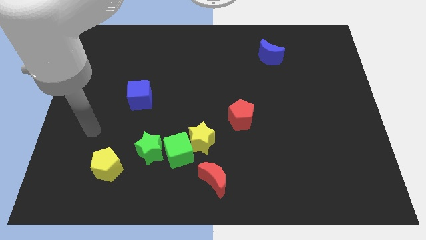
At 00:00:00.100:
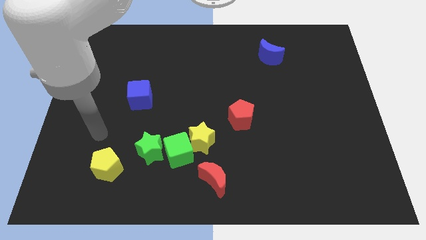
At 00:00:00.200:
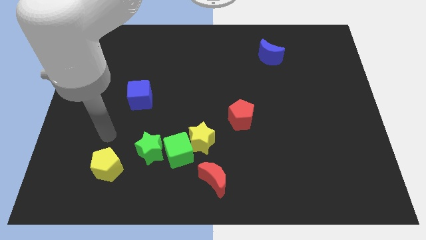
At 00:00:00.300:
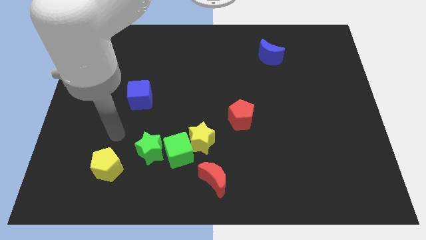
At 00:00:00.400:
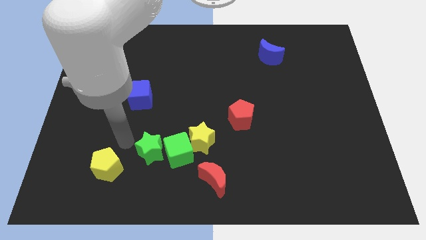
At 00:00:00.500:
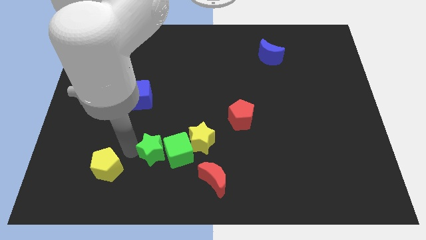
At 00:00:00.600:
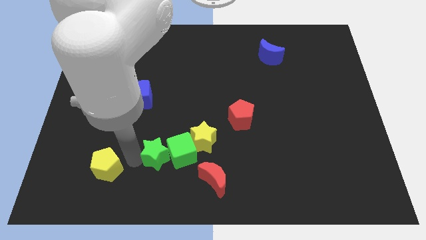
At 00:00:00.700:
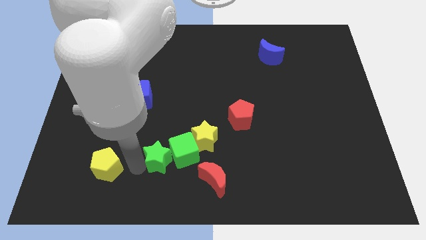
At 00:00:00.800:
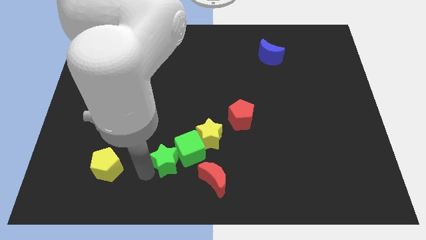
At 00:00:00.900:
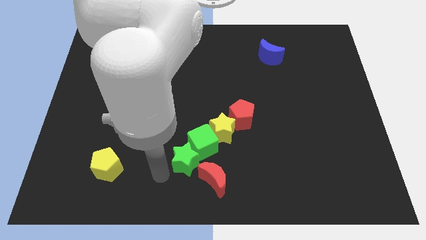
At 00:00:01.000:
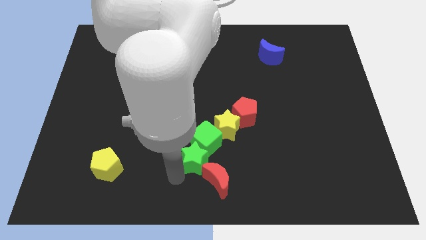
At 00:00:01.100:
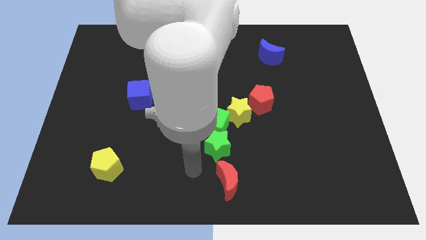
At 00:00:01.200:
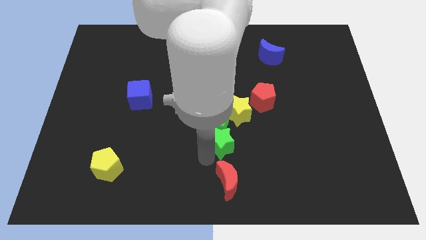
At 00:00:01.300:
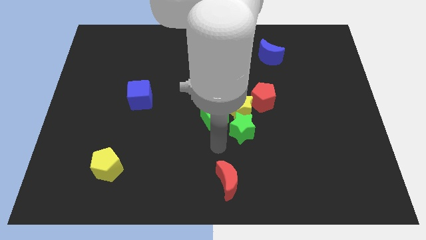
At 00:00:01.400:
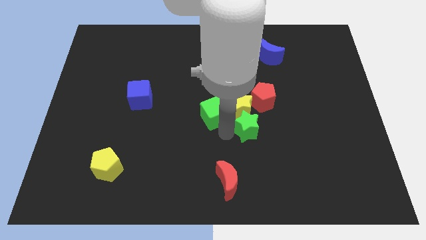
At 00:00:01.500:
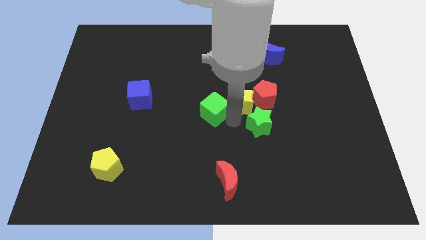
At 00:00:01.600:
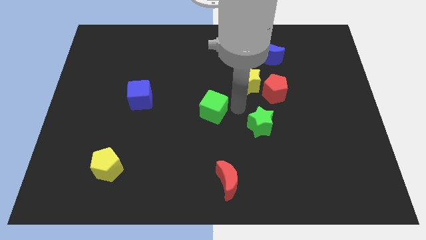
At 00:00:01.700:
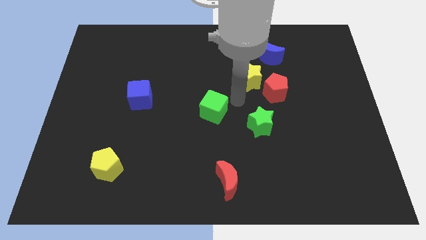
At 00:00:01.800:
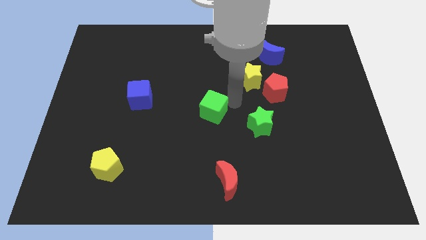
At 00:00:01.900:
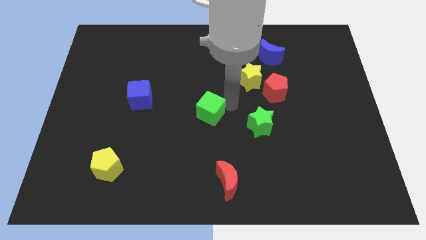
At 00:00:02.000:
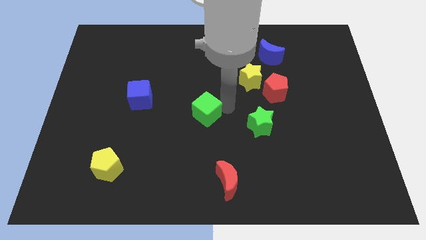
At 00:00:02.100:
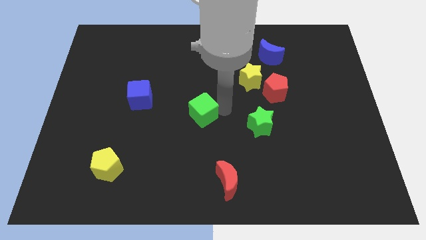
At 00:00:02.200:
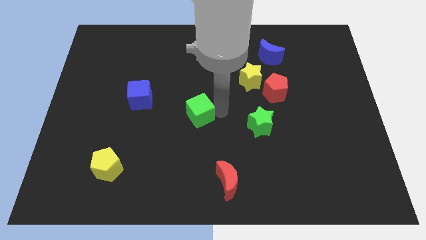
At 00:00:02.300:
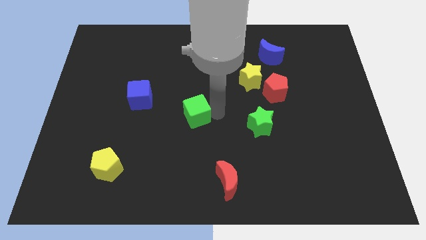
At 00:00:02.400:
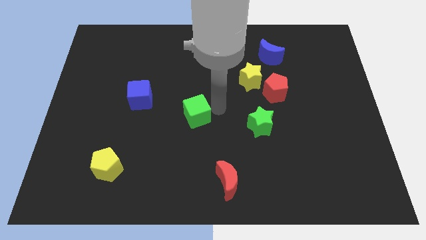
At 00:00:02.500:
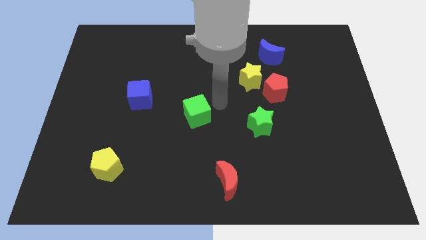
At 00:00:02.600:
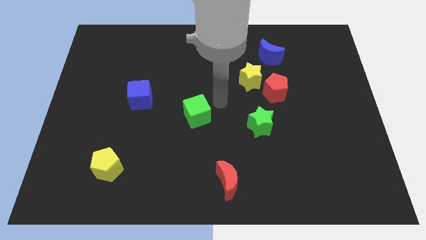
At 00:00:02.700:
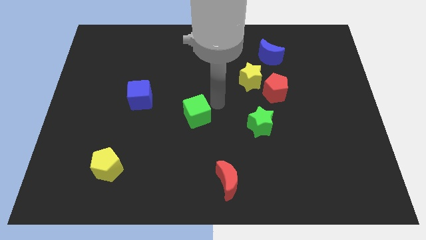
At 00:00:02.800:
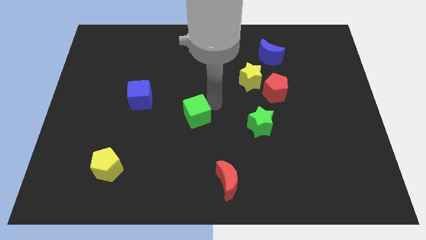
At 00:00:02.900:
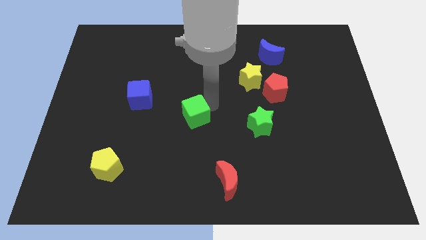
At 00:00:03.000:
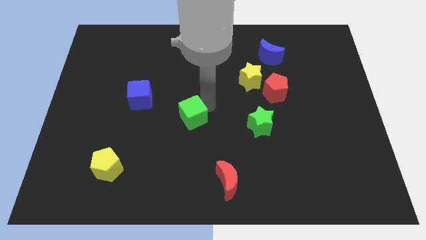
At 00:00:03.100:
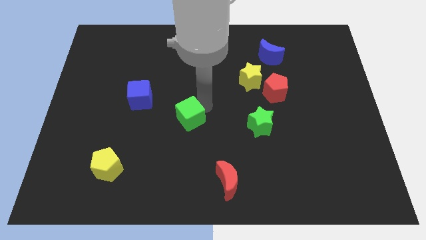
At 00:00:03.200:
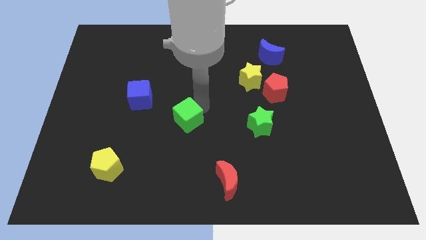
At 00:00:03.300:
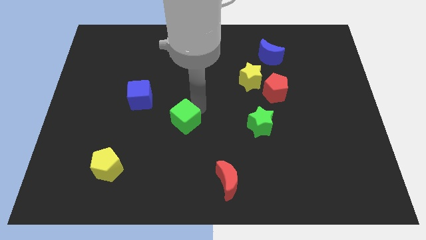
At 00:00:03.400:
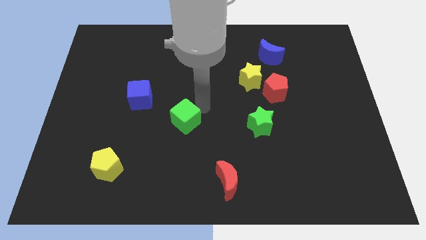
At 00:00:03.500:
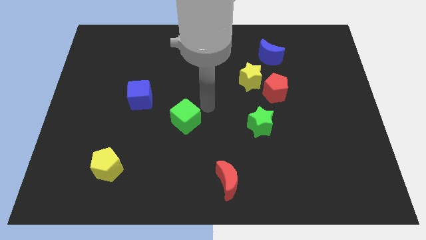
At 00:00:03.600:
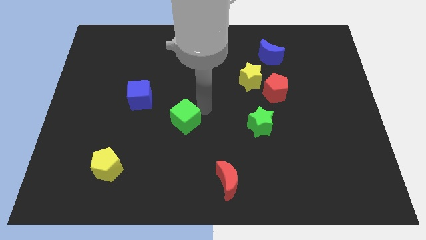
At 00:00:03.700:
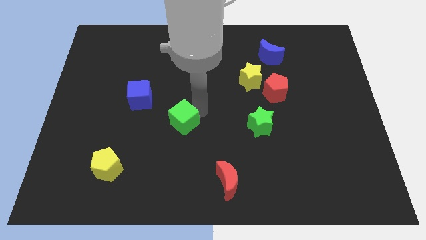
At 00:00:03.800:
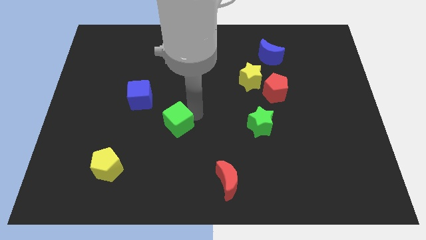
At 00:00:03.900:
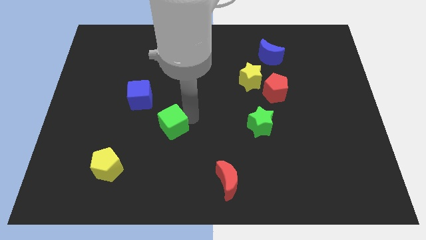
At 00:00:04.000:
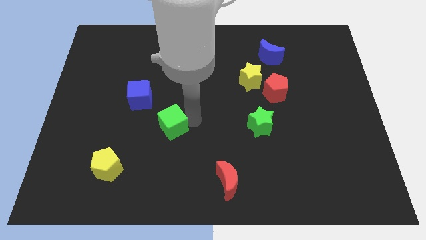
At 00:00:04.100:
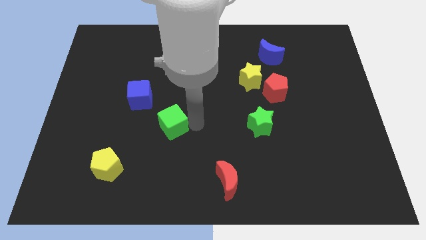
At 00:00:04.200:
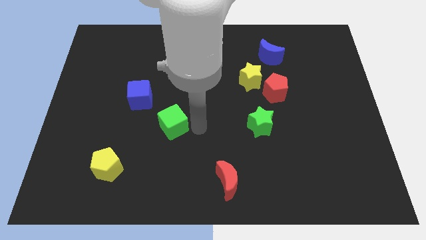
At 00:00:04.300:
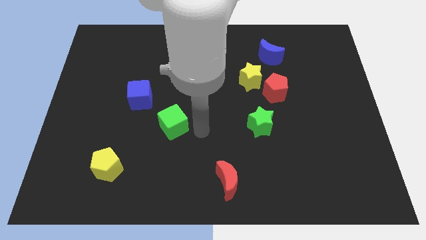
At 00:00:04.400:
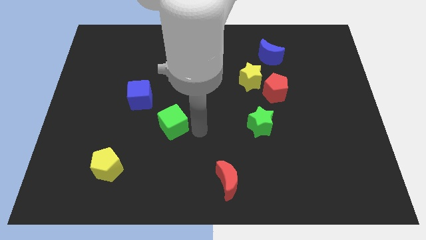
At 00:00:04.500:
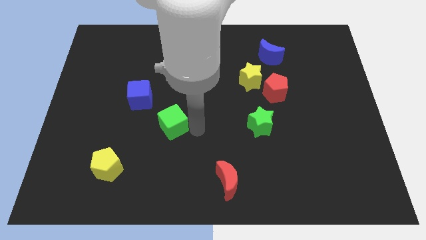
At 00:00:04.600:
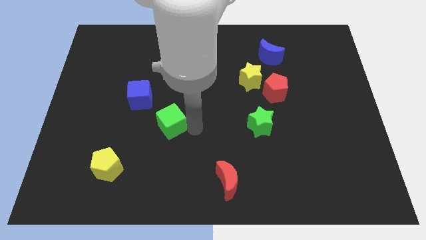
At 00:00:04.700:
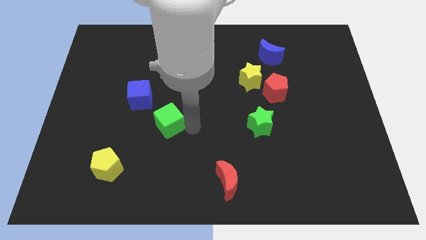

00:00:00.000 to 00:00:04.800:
move the green cube upwards and to the left a bit

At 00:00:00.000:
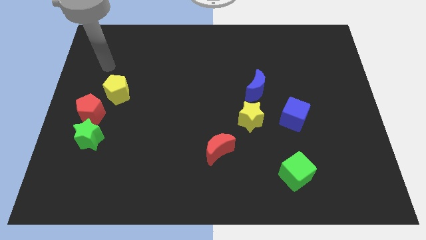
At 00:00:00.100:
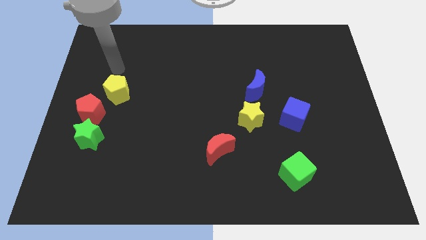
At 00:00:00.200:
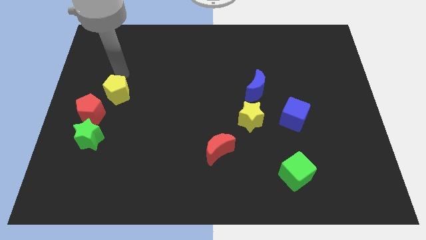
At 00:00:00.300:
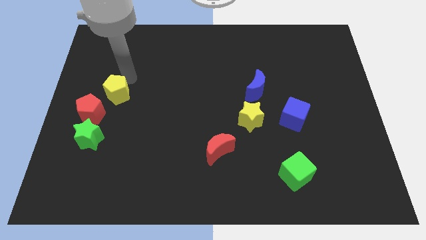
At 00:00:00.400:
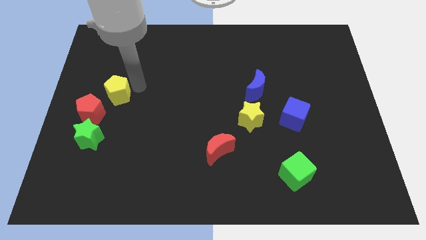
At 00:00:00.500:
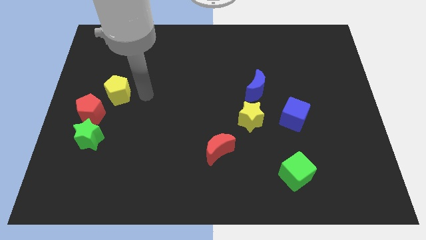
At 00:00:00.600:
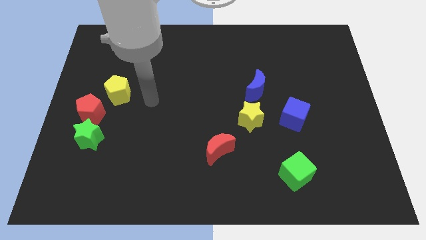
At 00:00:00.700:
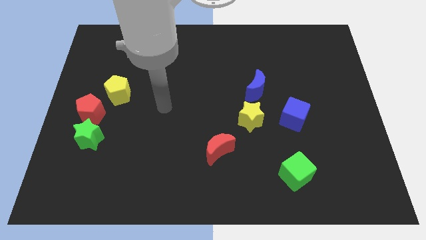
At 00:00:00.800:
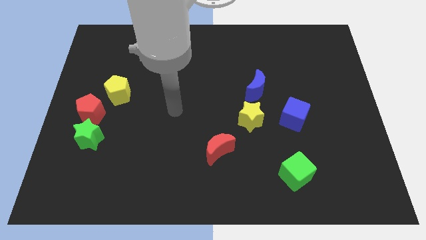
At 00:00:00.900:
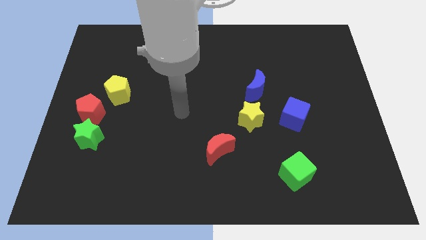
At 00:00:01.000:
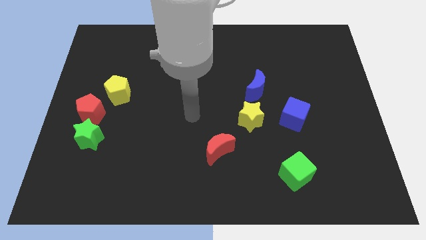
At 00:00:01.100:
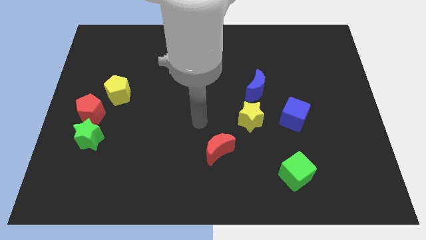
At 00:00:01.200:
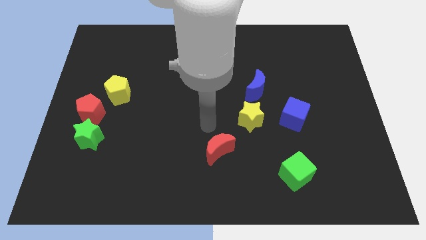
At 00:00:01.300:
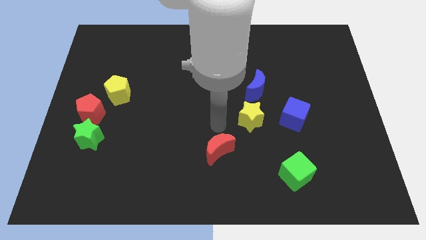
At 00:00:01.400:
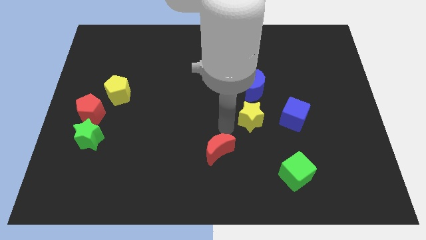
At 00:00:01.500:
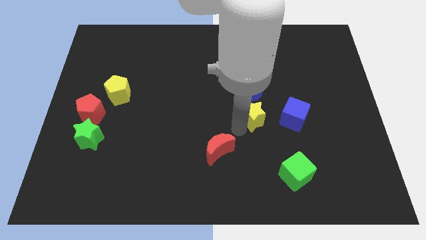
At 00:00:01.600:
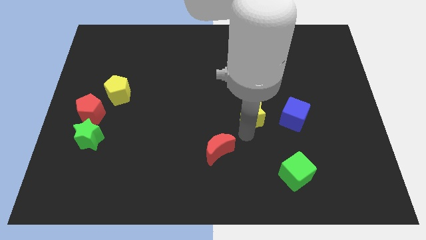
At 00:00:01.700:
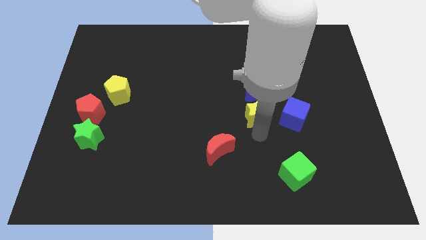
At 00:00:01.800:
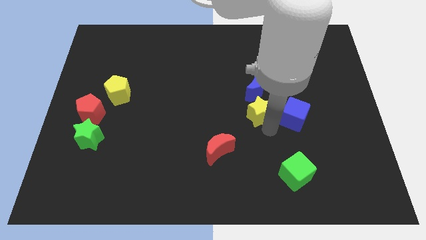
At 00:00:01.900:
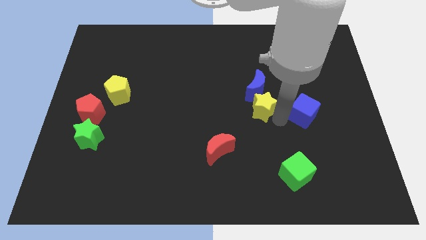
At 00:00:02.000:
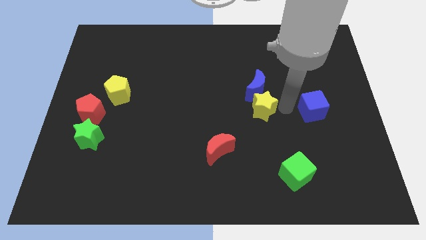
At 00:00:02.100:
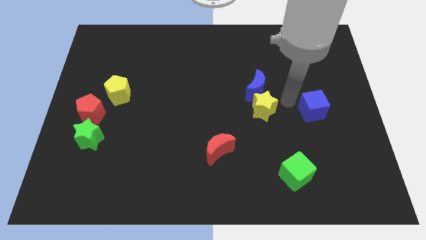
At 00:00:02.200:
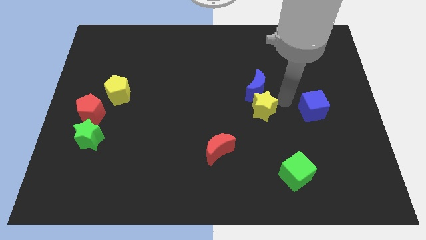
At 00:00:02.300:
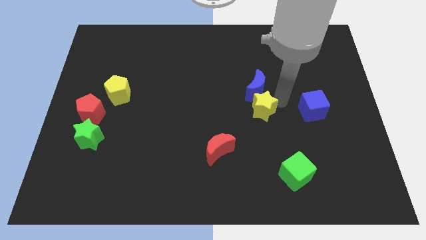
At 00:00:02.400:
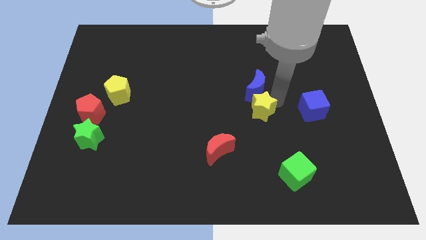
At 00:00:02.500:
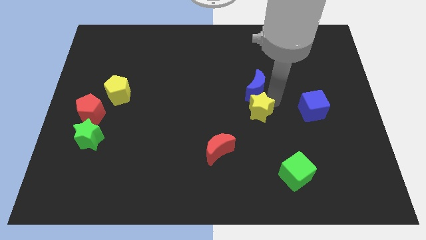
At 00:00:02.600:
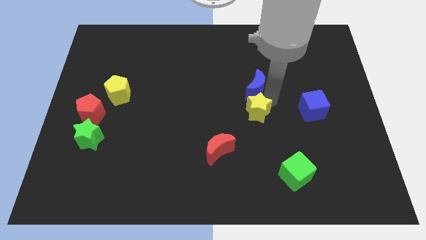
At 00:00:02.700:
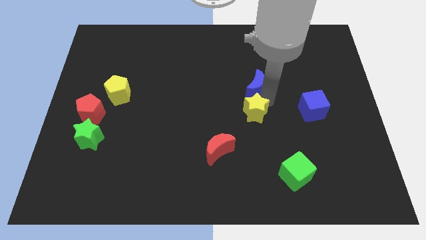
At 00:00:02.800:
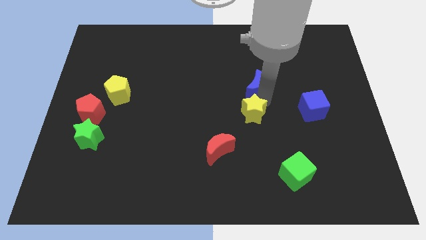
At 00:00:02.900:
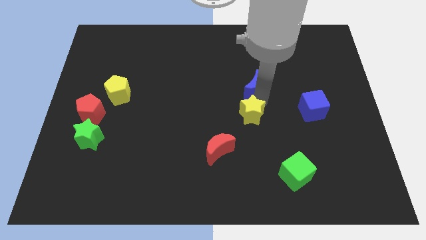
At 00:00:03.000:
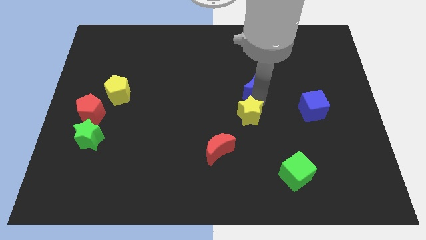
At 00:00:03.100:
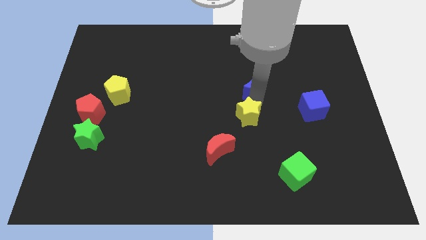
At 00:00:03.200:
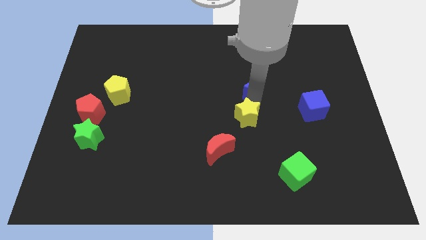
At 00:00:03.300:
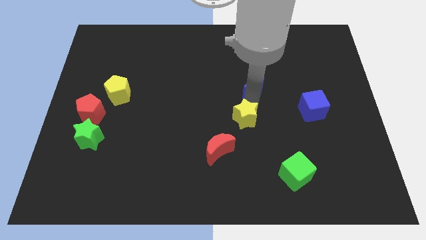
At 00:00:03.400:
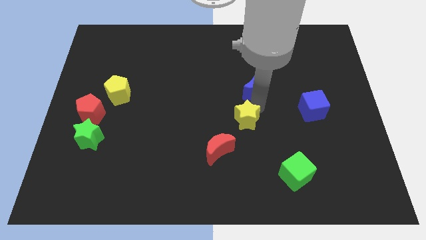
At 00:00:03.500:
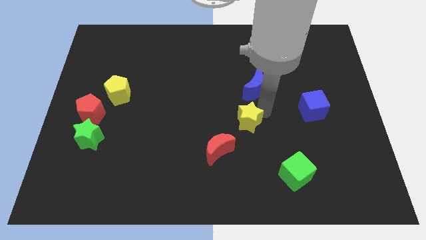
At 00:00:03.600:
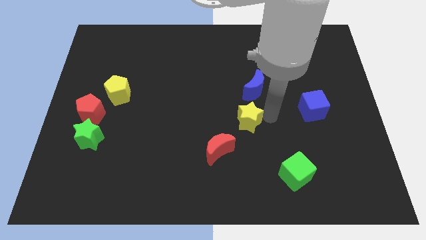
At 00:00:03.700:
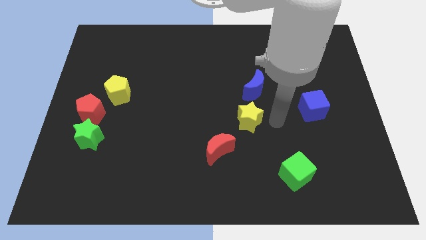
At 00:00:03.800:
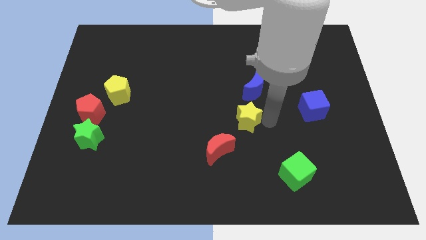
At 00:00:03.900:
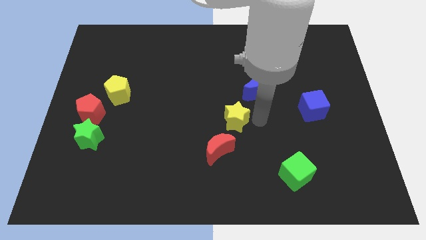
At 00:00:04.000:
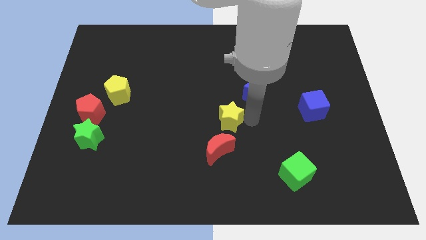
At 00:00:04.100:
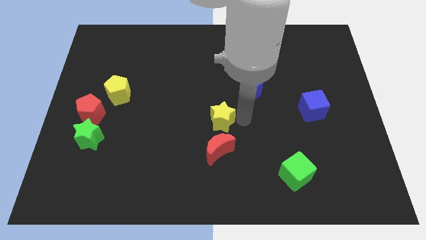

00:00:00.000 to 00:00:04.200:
slightly move the yellow star to the left
